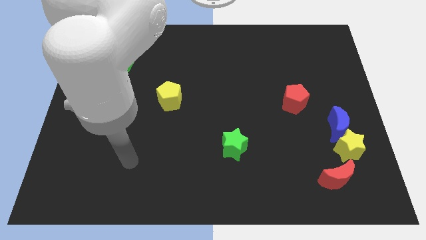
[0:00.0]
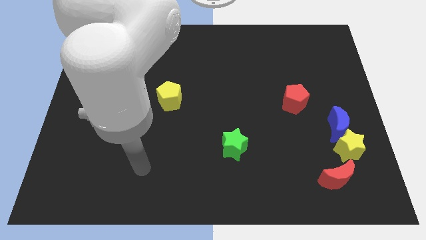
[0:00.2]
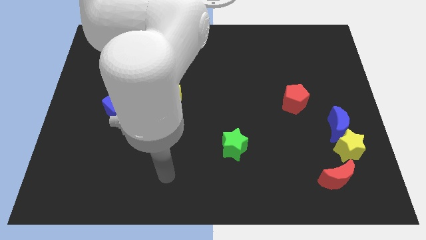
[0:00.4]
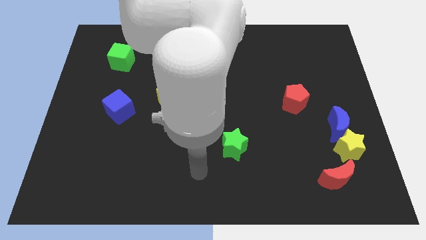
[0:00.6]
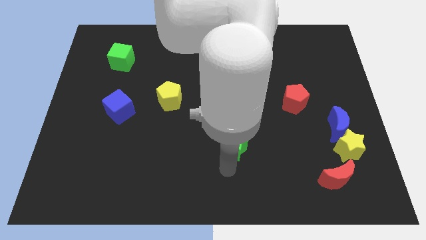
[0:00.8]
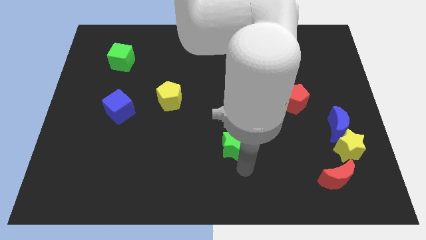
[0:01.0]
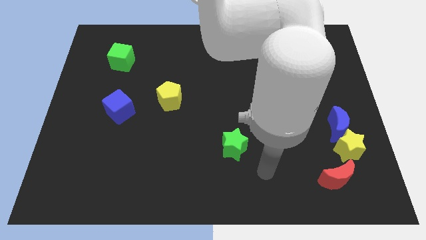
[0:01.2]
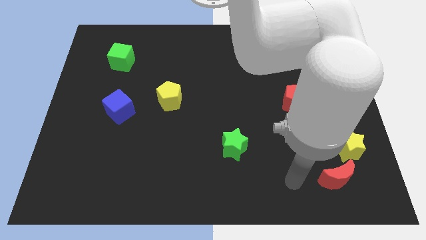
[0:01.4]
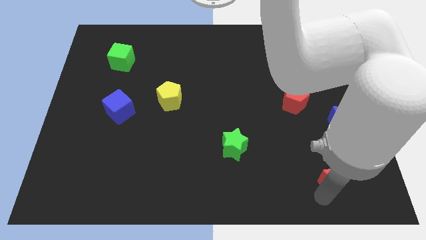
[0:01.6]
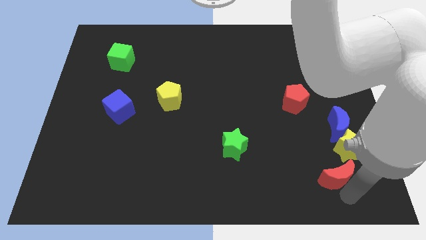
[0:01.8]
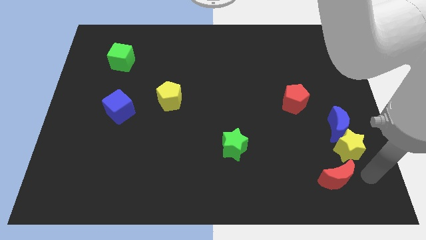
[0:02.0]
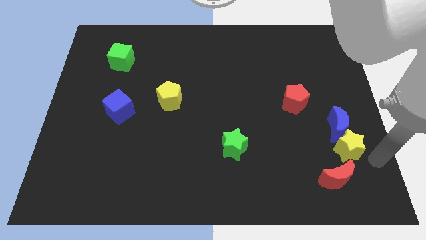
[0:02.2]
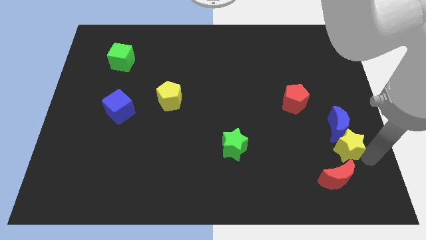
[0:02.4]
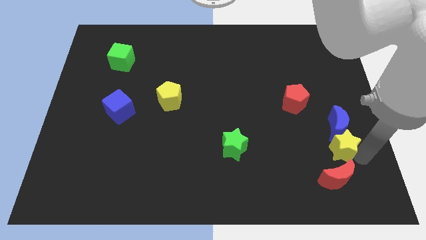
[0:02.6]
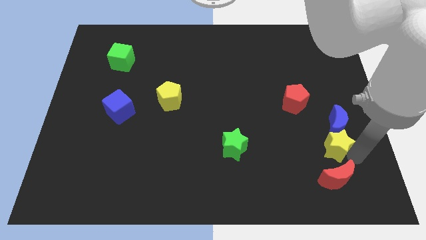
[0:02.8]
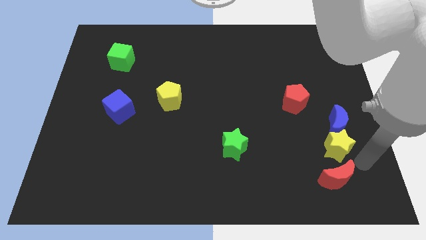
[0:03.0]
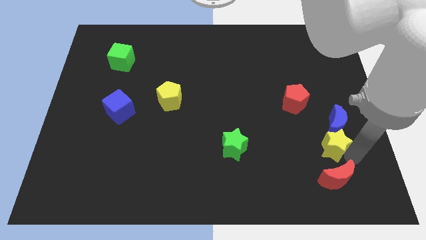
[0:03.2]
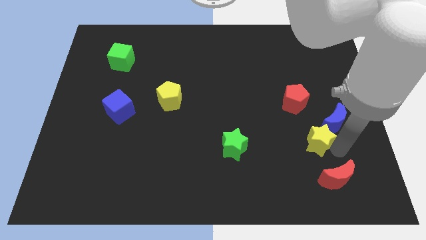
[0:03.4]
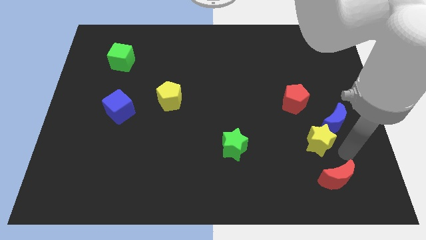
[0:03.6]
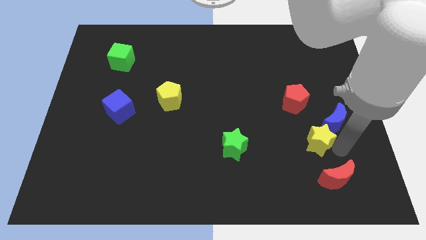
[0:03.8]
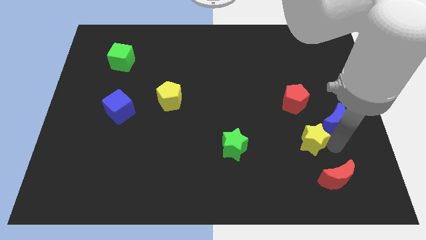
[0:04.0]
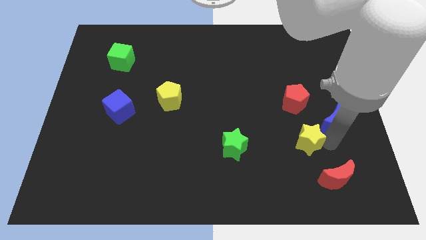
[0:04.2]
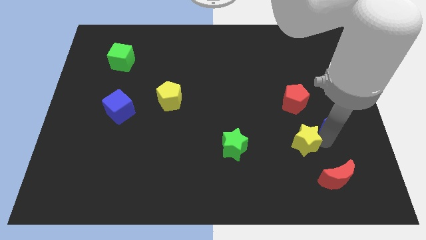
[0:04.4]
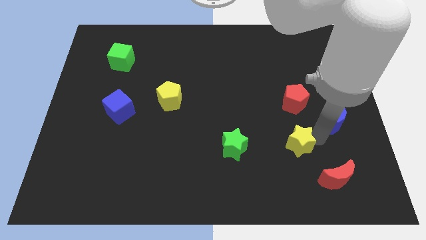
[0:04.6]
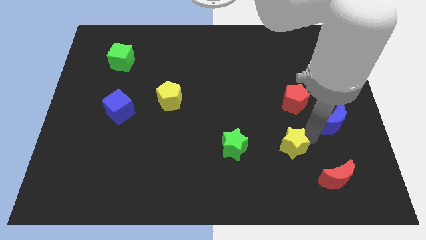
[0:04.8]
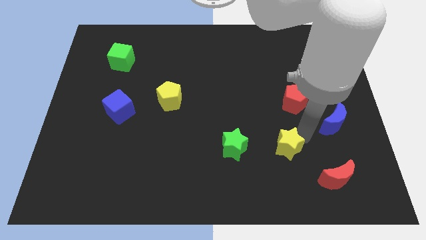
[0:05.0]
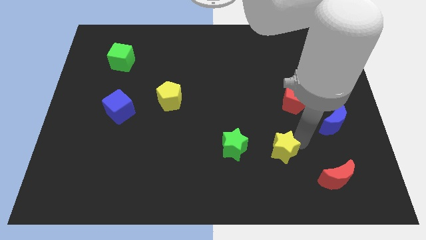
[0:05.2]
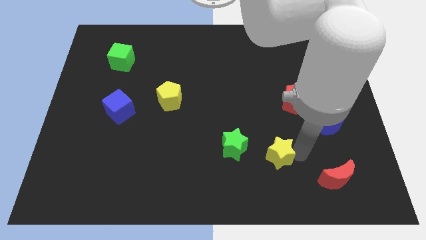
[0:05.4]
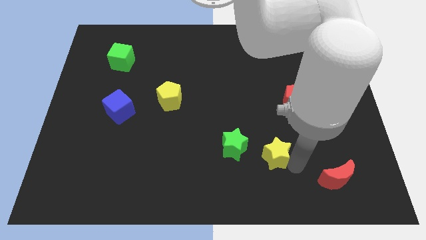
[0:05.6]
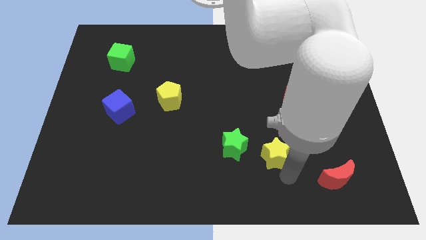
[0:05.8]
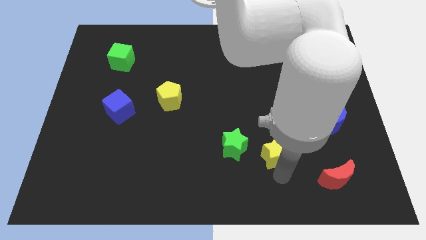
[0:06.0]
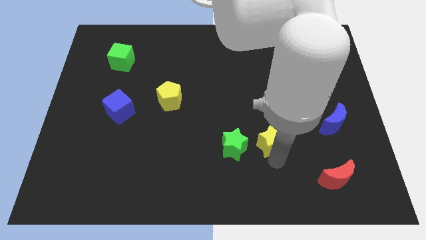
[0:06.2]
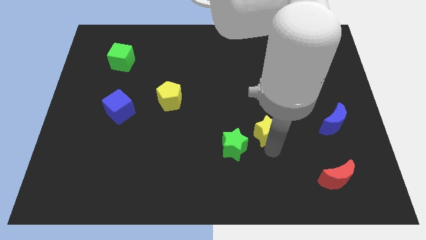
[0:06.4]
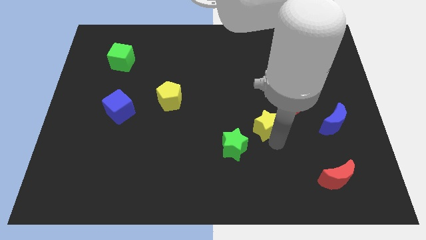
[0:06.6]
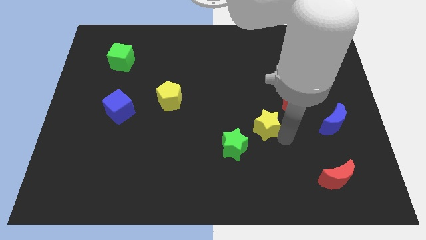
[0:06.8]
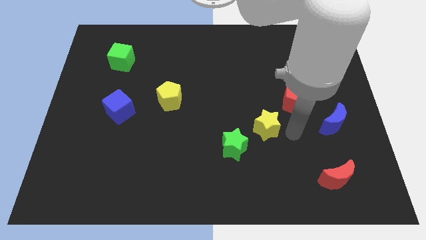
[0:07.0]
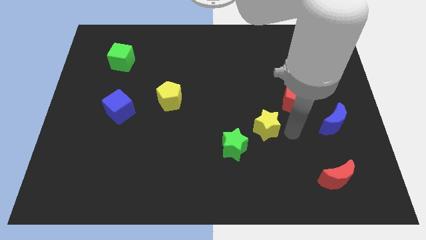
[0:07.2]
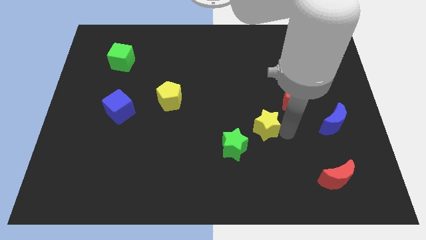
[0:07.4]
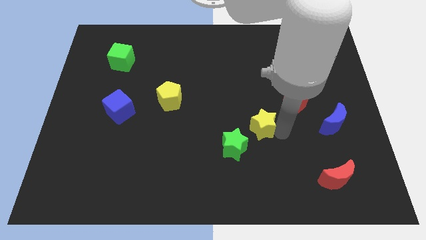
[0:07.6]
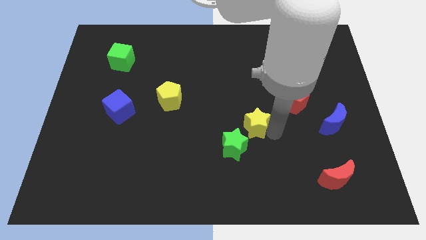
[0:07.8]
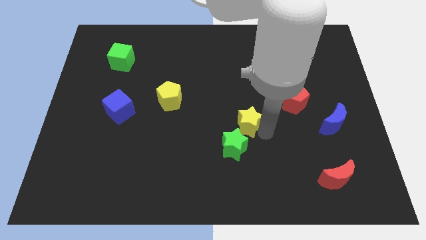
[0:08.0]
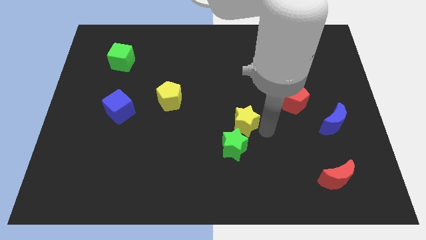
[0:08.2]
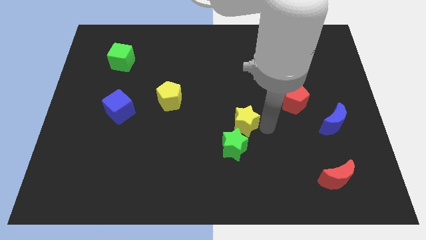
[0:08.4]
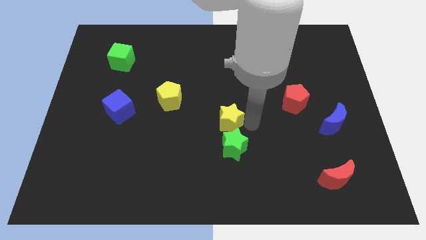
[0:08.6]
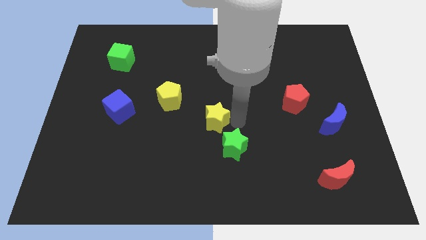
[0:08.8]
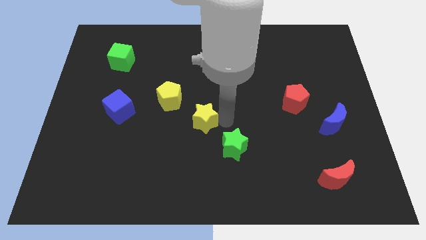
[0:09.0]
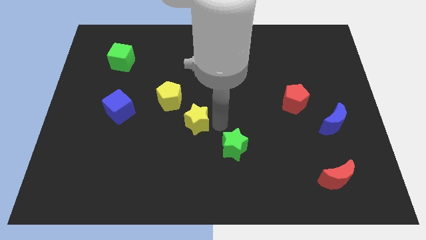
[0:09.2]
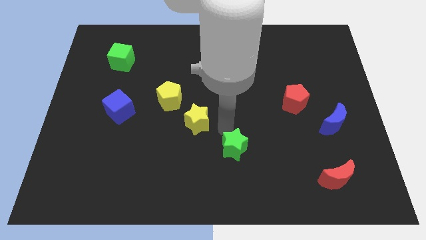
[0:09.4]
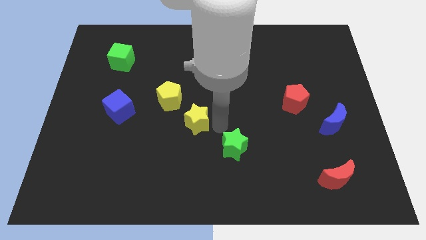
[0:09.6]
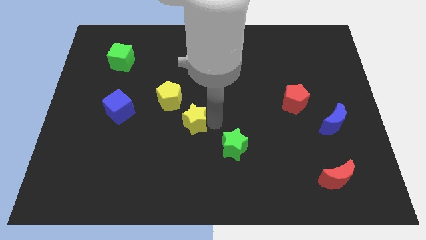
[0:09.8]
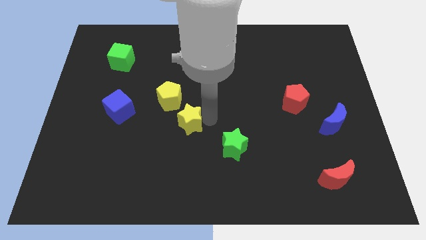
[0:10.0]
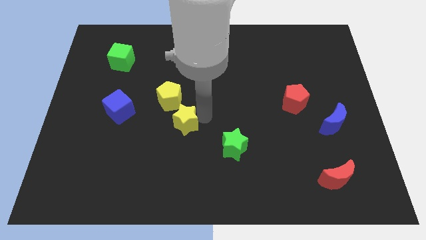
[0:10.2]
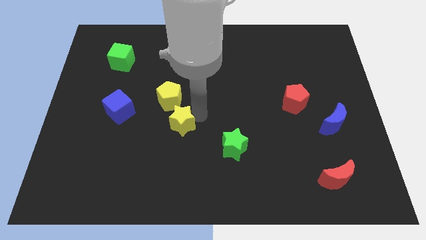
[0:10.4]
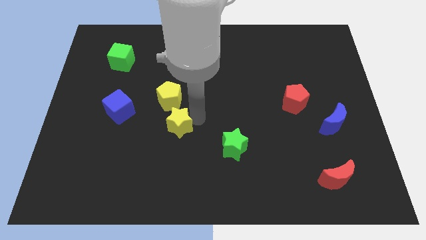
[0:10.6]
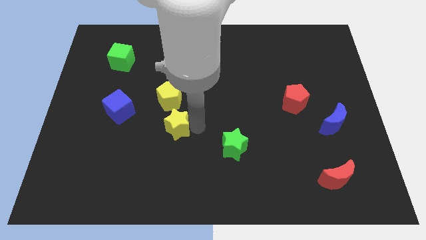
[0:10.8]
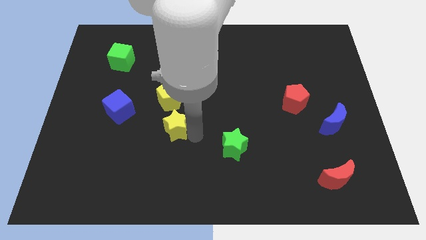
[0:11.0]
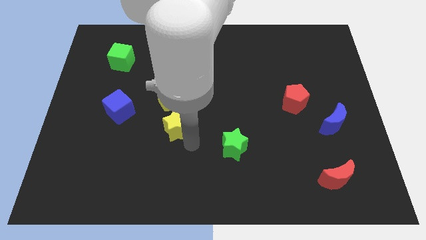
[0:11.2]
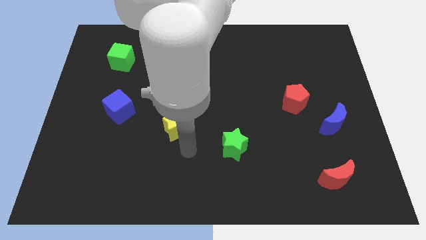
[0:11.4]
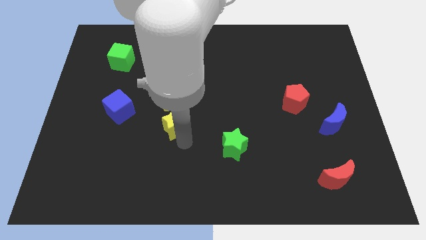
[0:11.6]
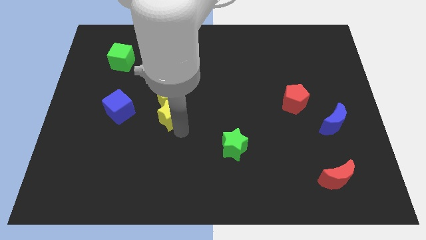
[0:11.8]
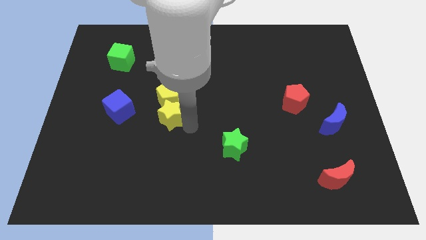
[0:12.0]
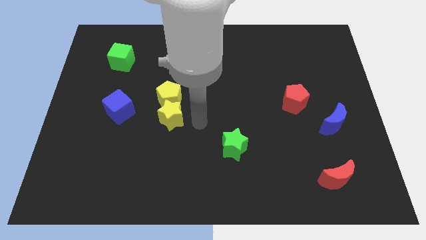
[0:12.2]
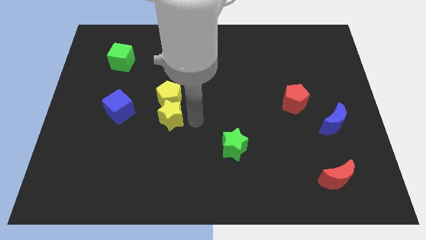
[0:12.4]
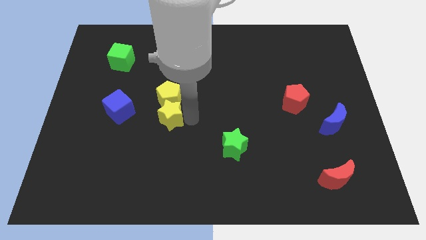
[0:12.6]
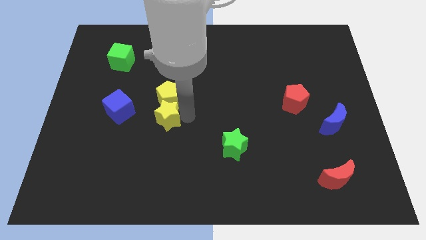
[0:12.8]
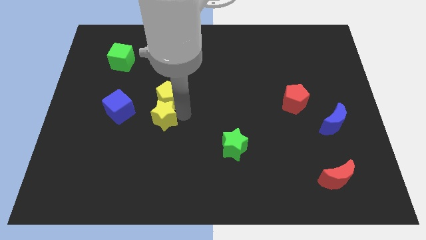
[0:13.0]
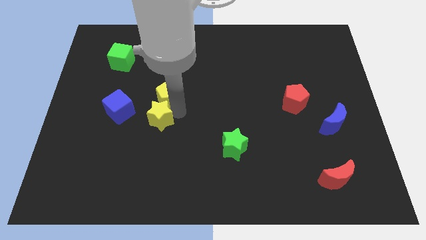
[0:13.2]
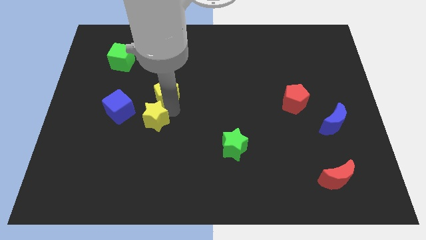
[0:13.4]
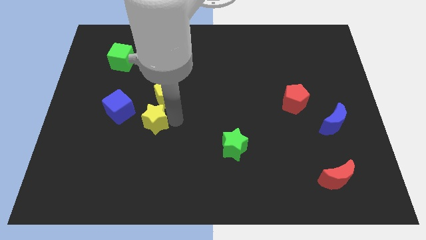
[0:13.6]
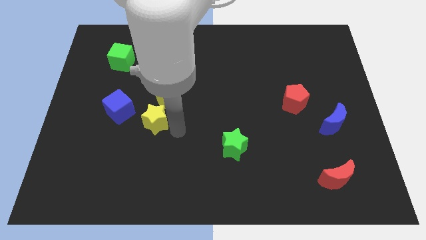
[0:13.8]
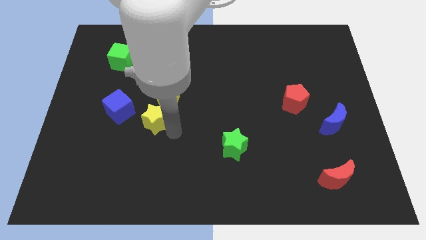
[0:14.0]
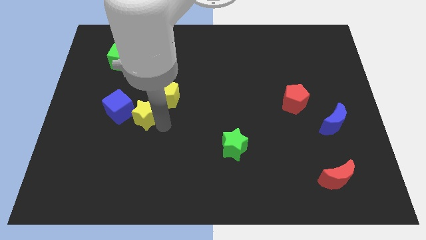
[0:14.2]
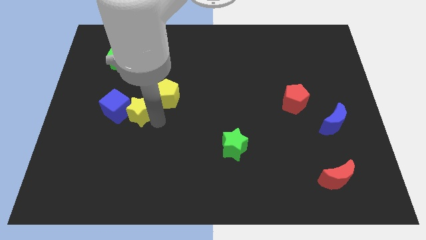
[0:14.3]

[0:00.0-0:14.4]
push the yellow star towards the blue cube

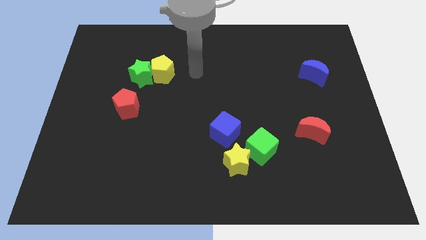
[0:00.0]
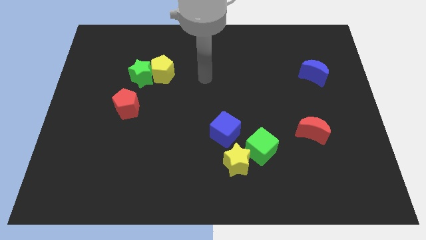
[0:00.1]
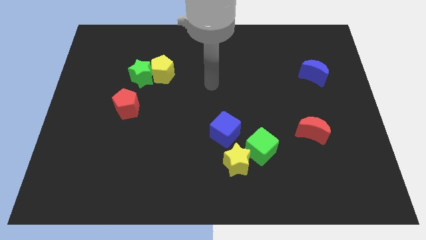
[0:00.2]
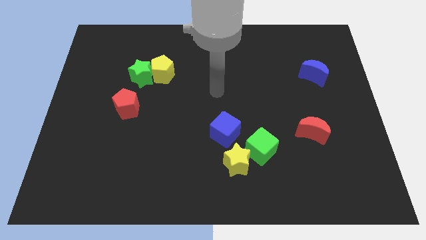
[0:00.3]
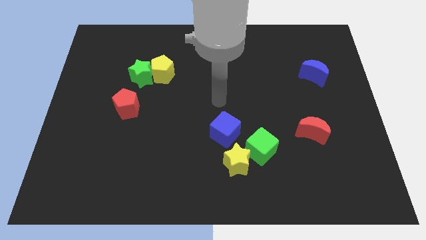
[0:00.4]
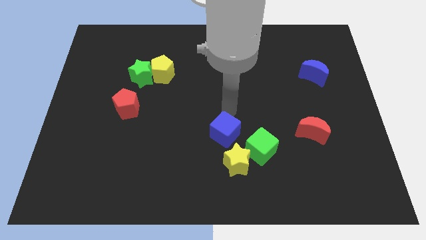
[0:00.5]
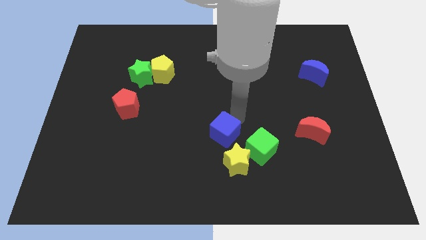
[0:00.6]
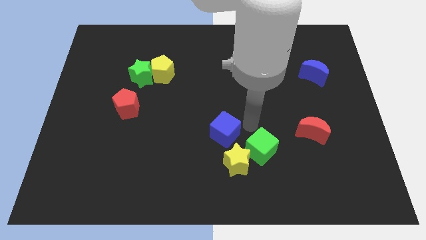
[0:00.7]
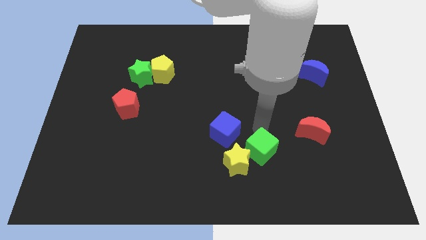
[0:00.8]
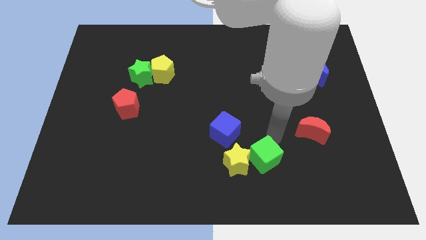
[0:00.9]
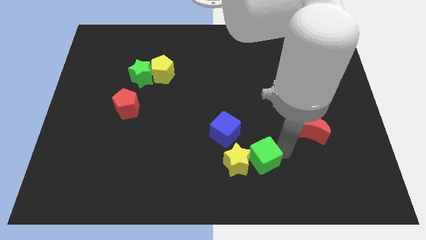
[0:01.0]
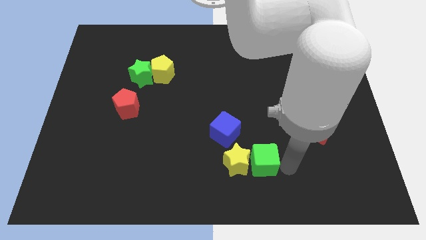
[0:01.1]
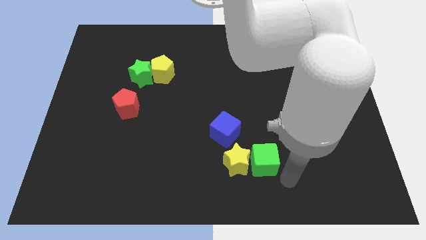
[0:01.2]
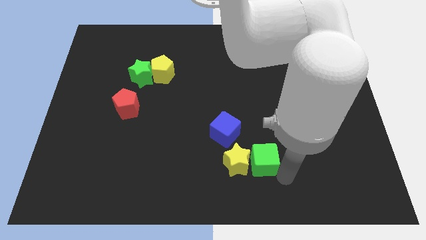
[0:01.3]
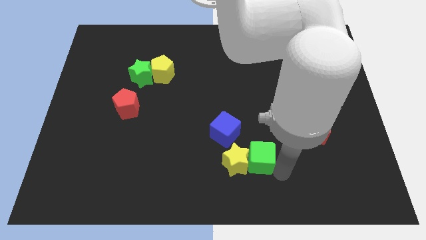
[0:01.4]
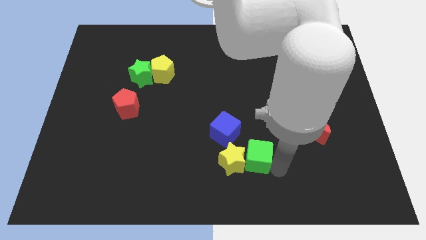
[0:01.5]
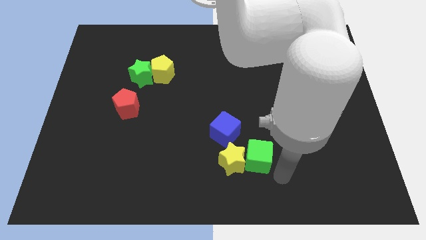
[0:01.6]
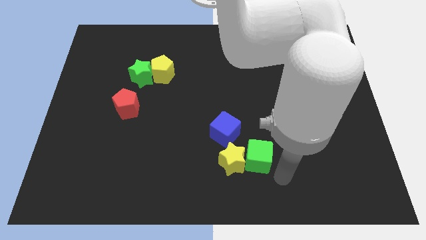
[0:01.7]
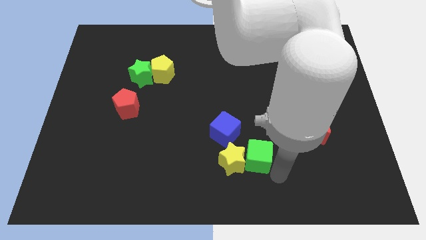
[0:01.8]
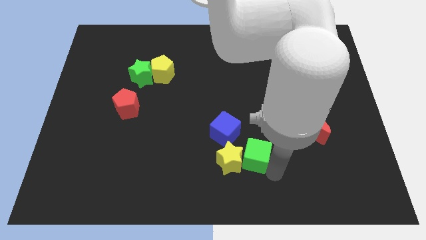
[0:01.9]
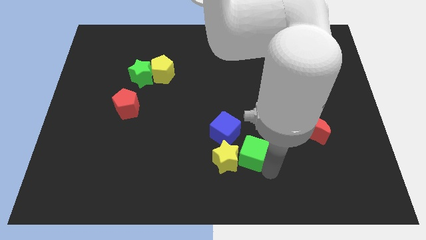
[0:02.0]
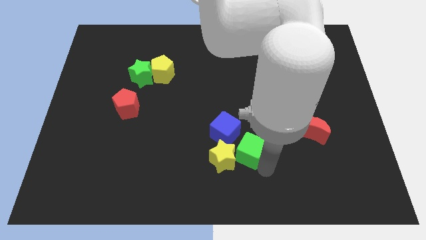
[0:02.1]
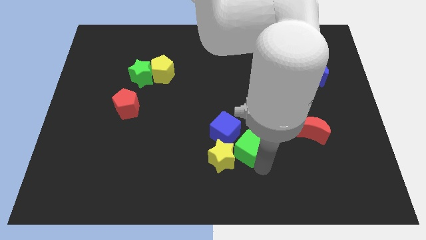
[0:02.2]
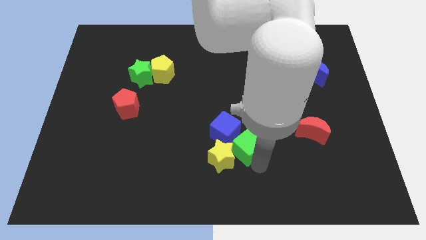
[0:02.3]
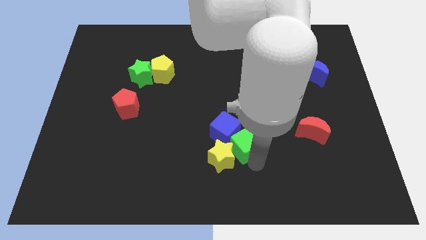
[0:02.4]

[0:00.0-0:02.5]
put the green cube towards the blue cube
